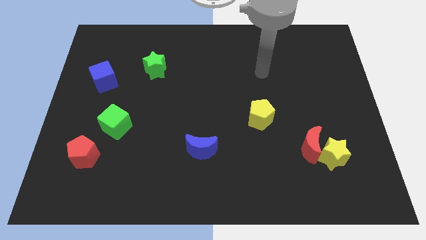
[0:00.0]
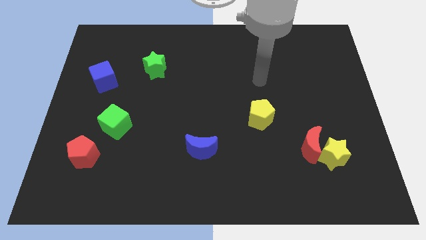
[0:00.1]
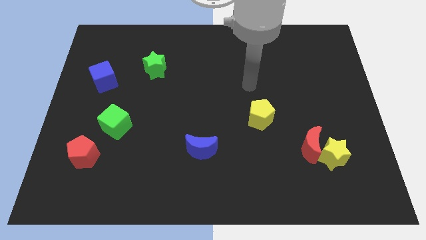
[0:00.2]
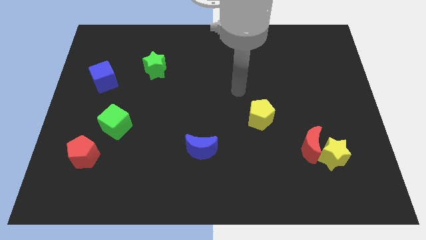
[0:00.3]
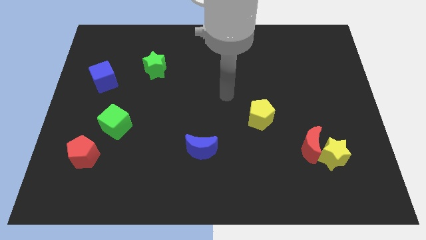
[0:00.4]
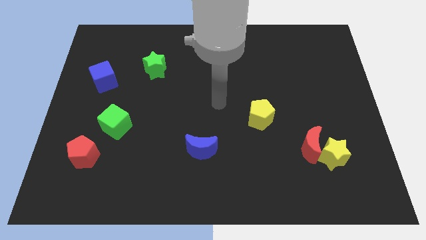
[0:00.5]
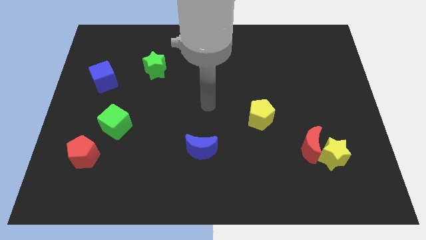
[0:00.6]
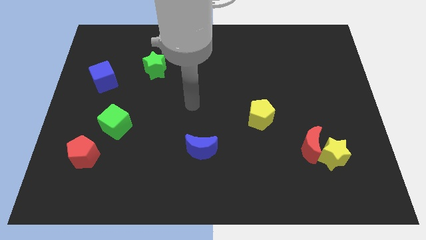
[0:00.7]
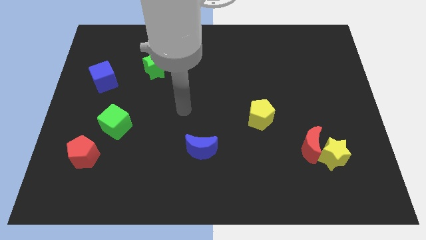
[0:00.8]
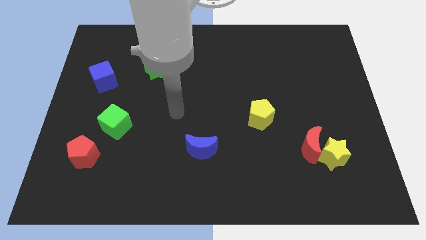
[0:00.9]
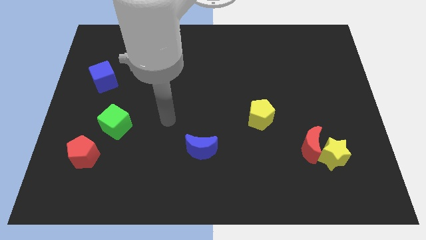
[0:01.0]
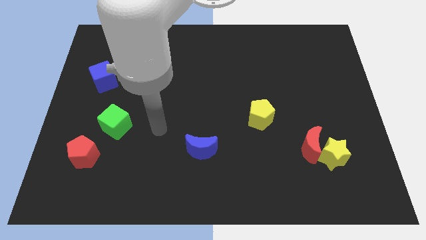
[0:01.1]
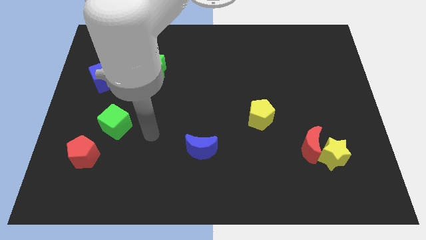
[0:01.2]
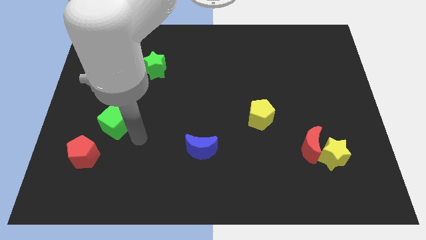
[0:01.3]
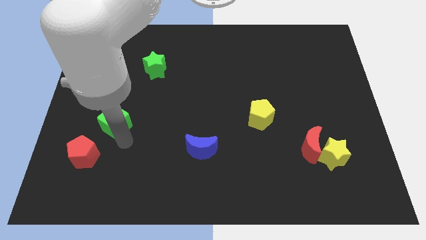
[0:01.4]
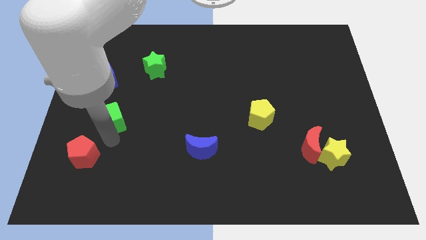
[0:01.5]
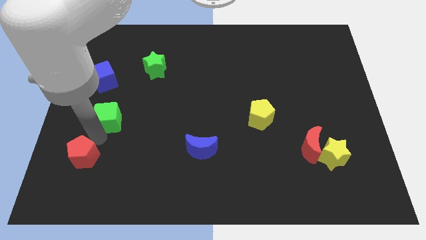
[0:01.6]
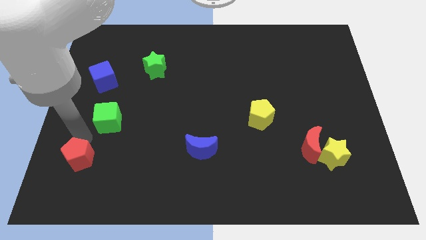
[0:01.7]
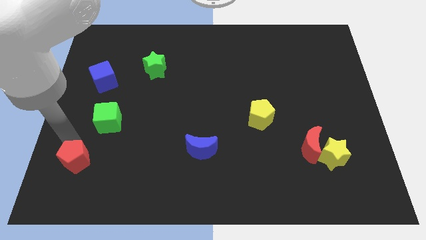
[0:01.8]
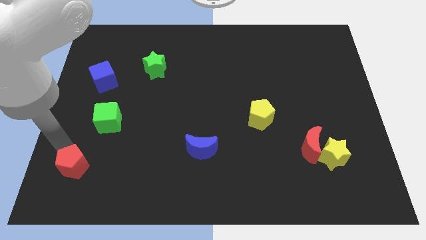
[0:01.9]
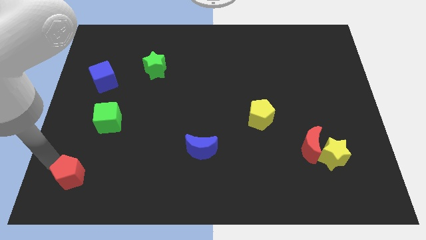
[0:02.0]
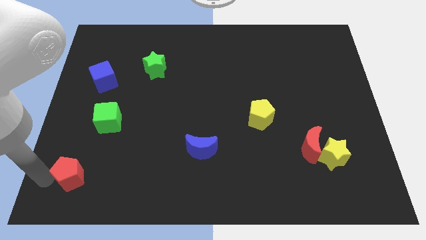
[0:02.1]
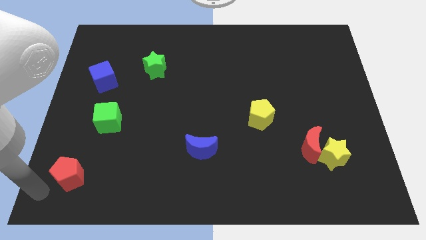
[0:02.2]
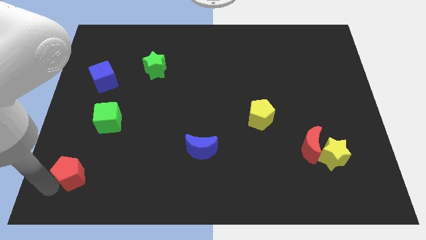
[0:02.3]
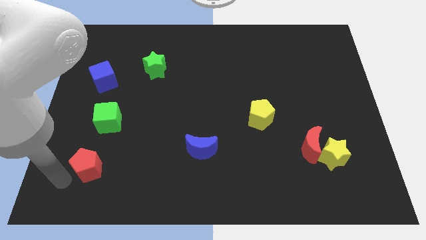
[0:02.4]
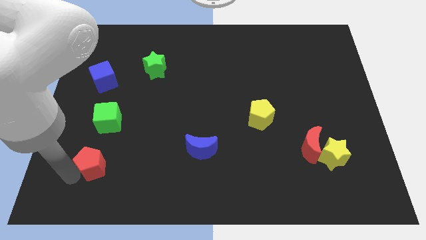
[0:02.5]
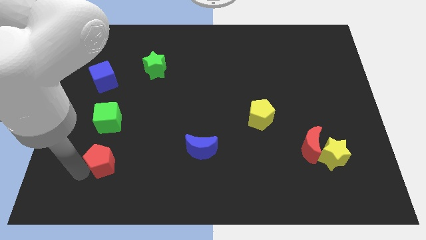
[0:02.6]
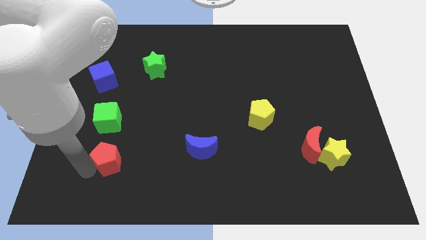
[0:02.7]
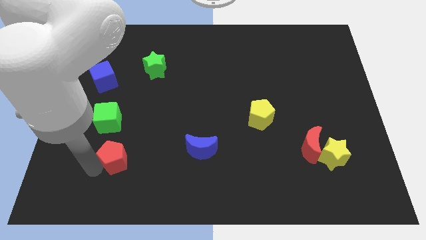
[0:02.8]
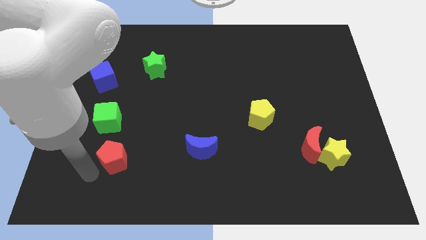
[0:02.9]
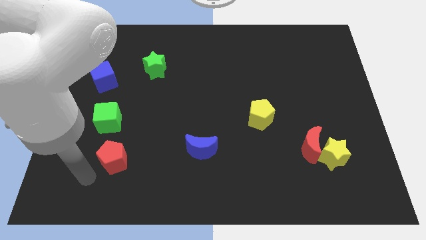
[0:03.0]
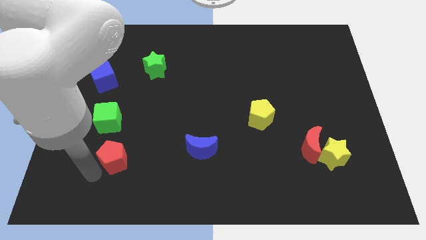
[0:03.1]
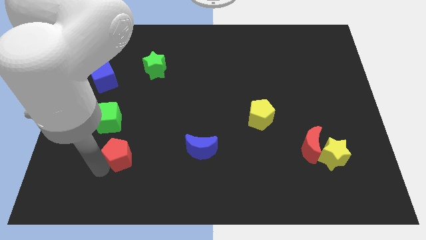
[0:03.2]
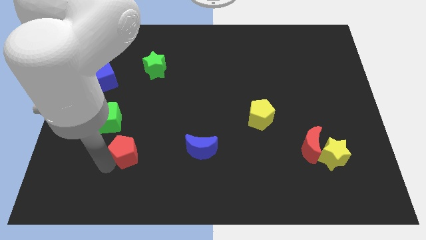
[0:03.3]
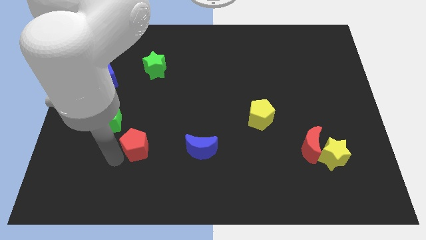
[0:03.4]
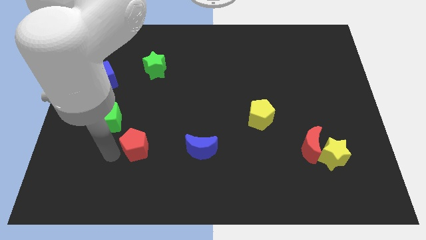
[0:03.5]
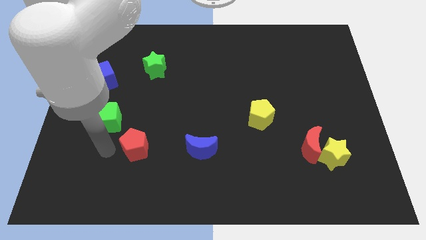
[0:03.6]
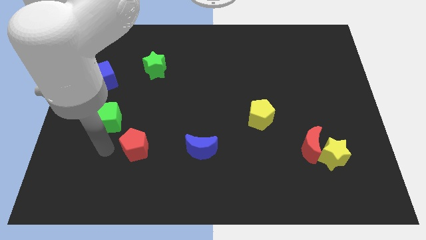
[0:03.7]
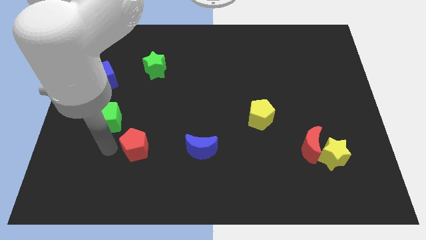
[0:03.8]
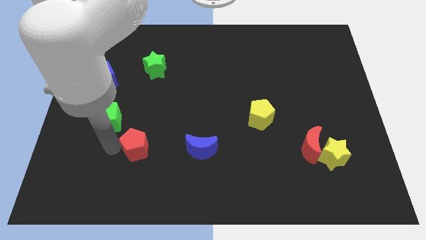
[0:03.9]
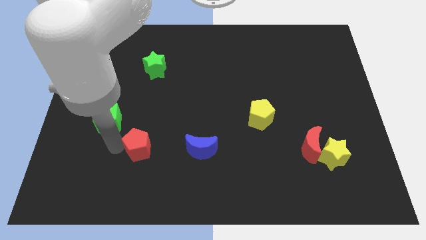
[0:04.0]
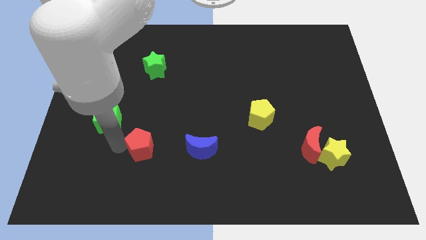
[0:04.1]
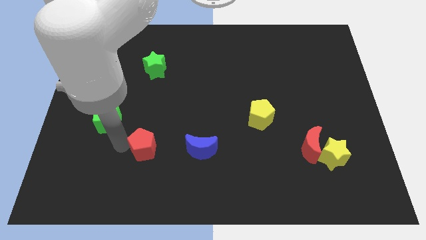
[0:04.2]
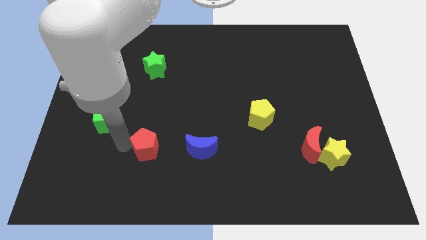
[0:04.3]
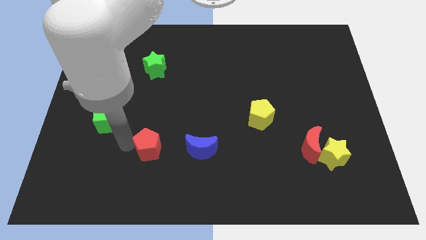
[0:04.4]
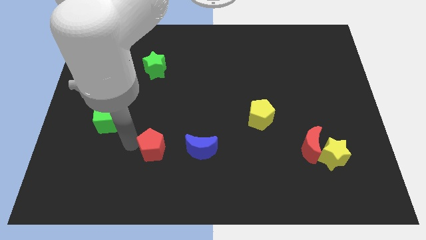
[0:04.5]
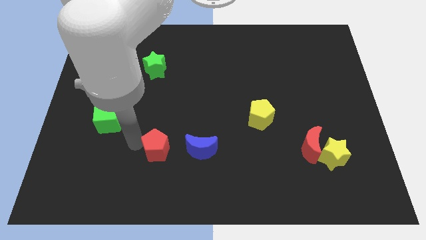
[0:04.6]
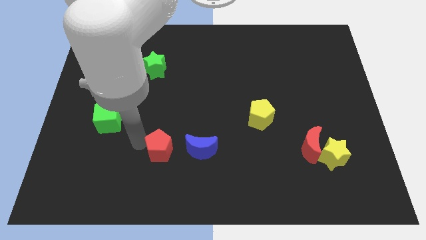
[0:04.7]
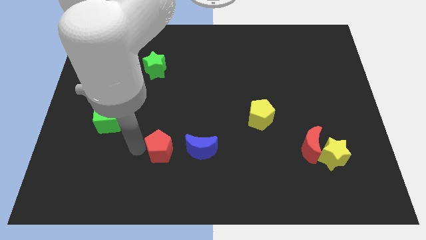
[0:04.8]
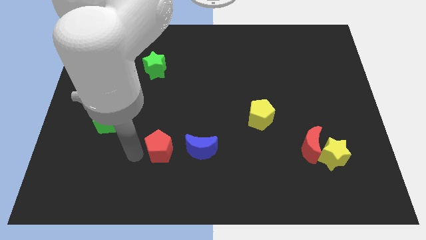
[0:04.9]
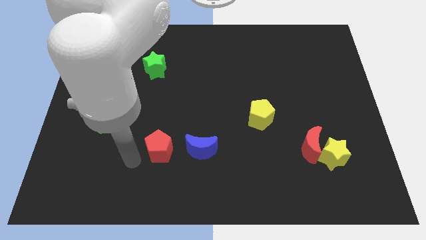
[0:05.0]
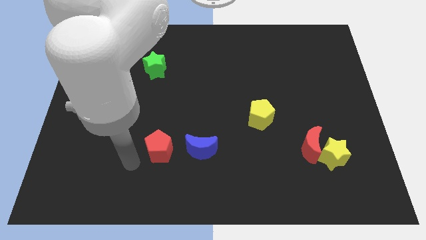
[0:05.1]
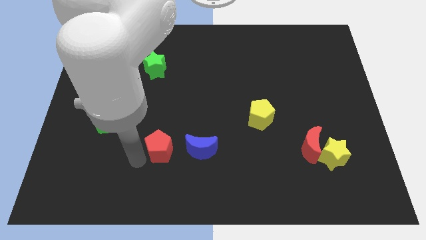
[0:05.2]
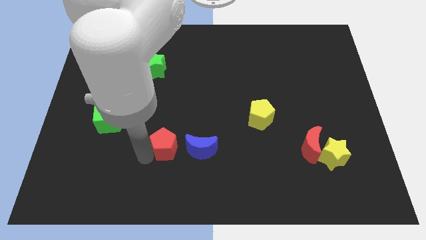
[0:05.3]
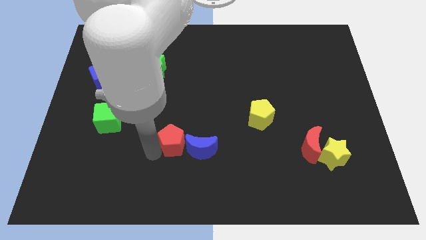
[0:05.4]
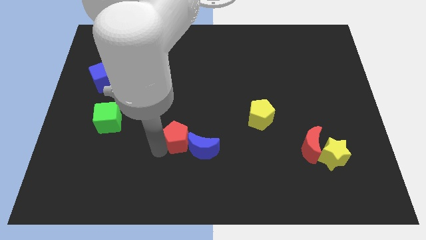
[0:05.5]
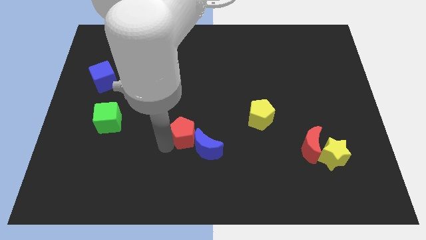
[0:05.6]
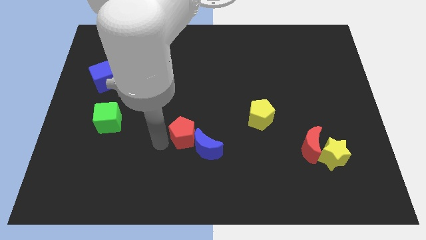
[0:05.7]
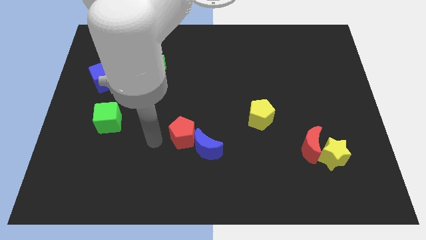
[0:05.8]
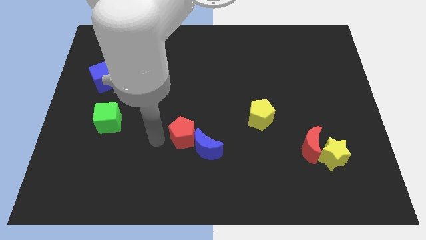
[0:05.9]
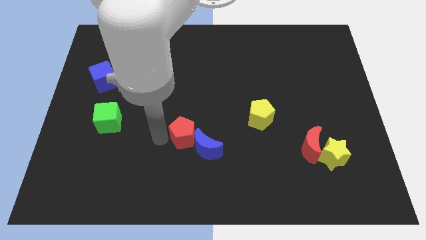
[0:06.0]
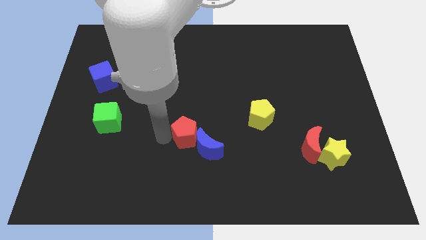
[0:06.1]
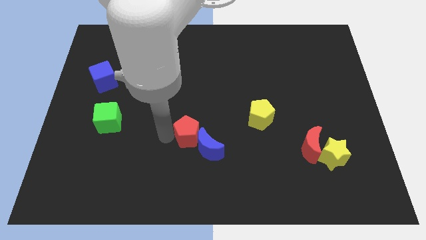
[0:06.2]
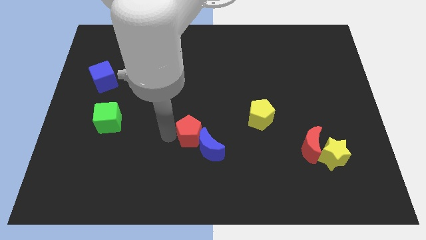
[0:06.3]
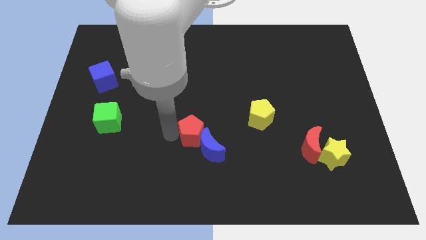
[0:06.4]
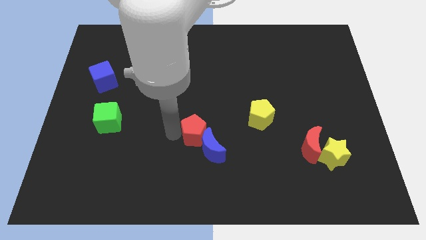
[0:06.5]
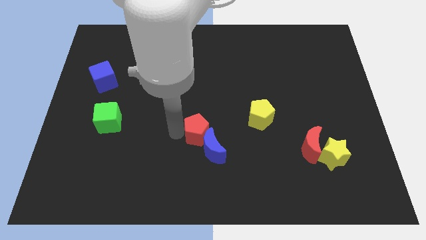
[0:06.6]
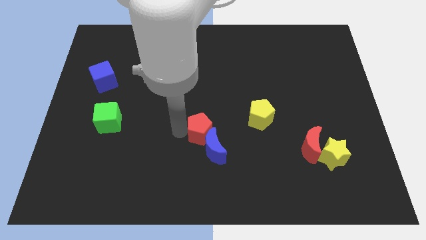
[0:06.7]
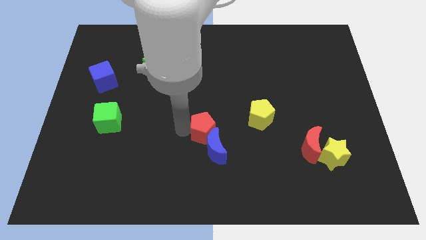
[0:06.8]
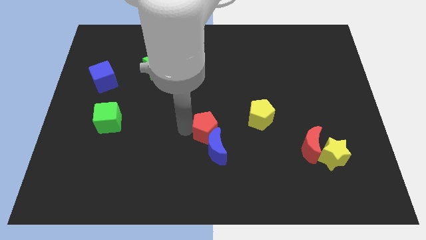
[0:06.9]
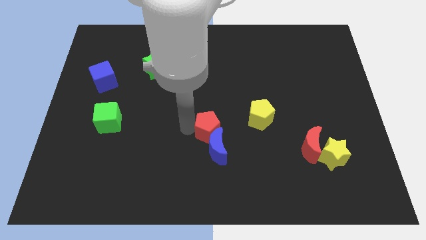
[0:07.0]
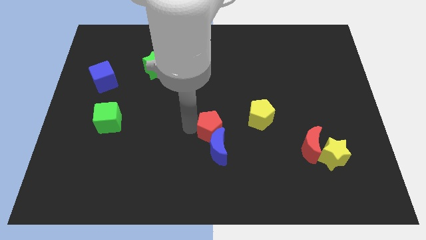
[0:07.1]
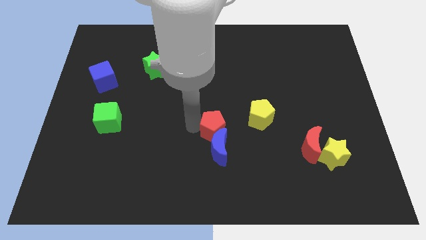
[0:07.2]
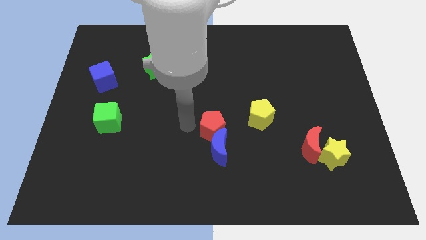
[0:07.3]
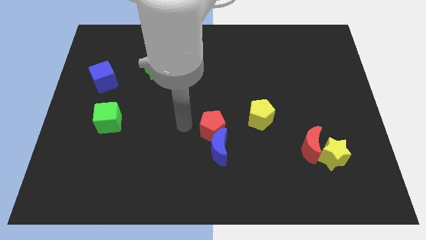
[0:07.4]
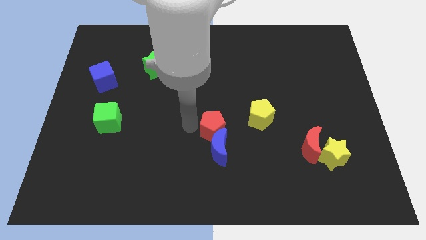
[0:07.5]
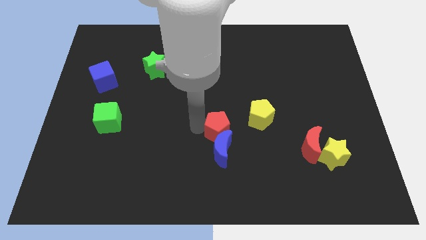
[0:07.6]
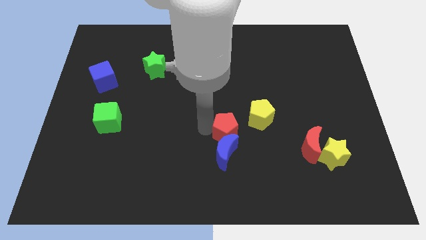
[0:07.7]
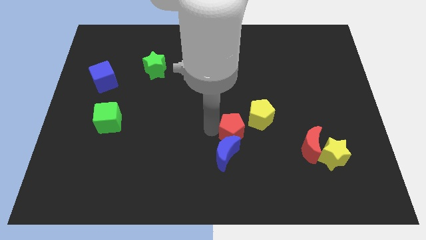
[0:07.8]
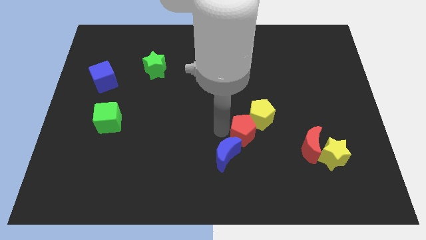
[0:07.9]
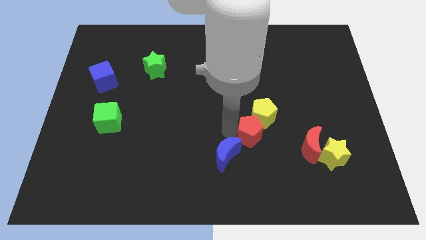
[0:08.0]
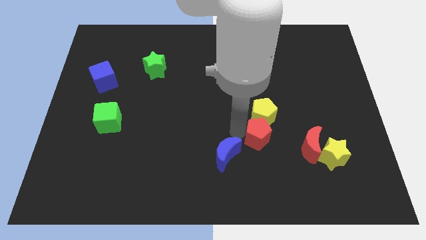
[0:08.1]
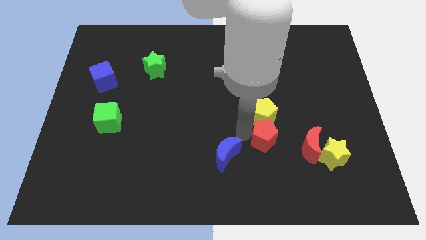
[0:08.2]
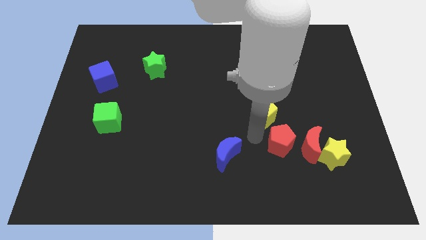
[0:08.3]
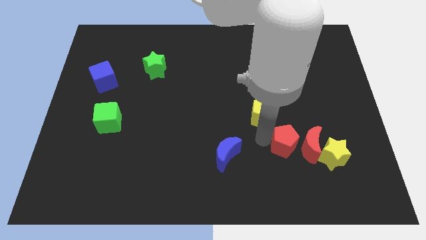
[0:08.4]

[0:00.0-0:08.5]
slide the red pentagon to the red moon
